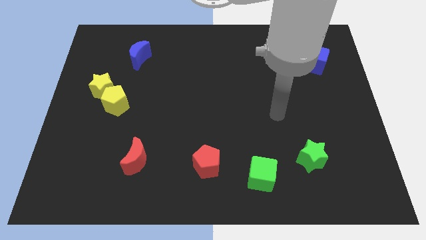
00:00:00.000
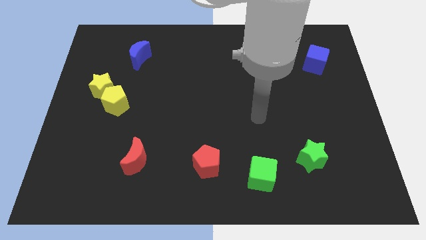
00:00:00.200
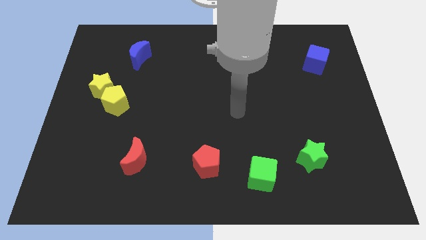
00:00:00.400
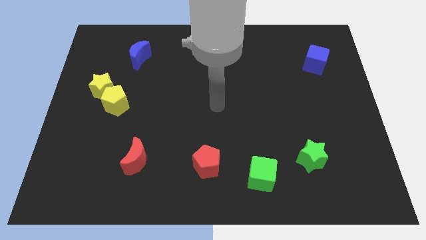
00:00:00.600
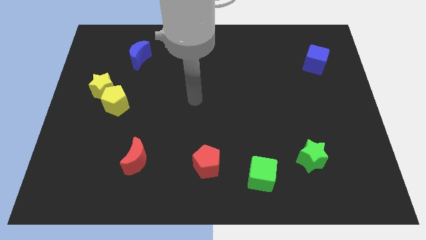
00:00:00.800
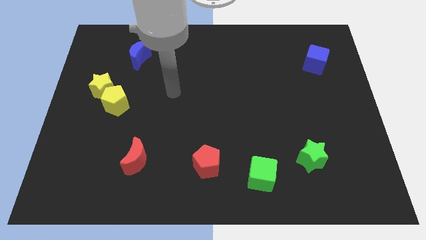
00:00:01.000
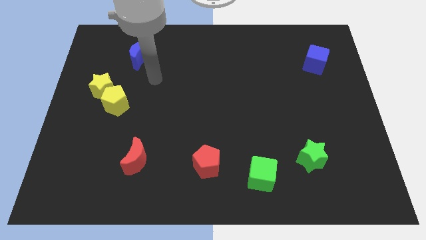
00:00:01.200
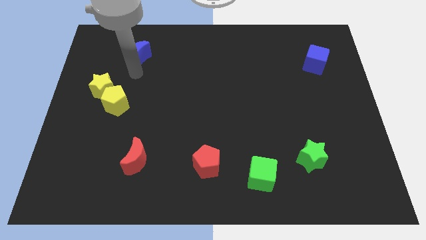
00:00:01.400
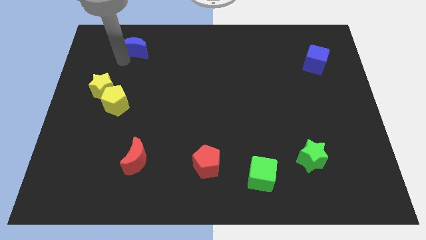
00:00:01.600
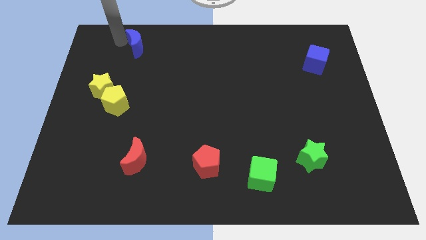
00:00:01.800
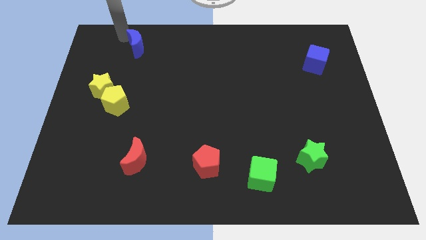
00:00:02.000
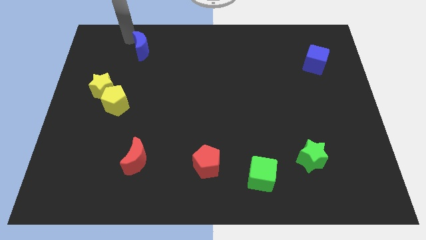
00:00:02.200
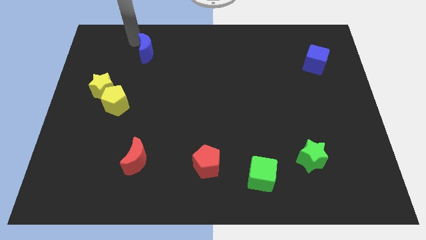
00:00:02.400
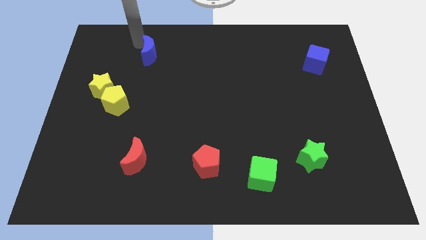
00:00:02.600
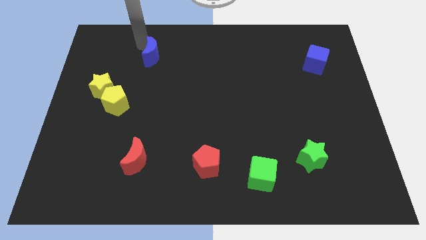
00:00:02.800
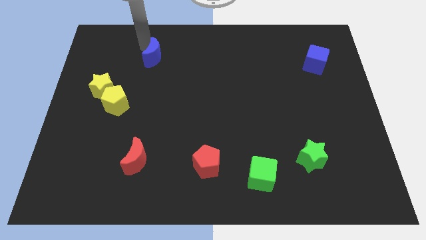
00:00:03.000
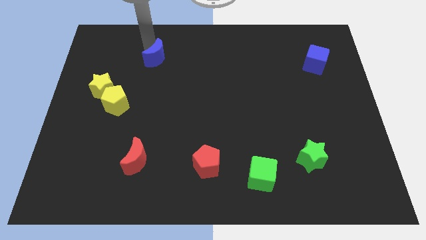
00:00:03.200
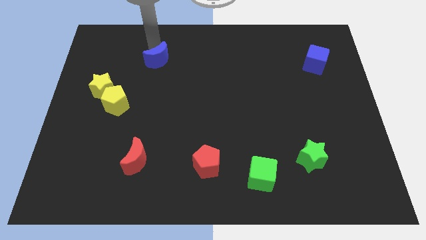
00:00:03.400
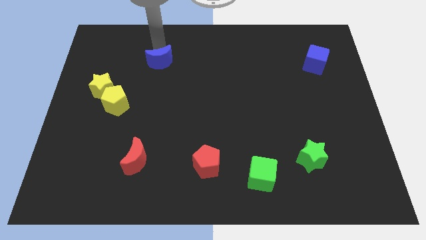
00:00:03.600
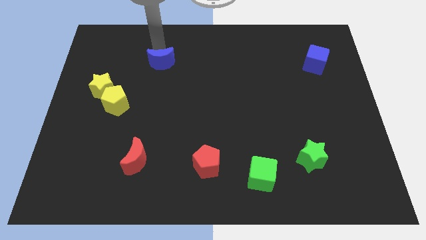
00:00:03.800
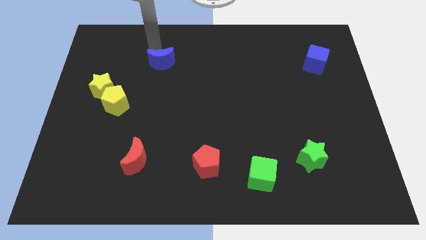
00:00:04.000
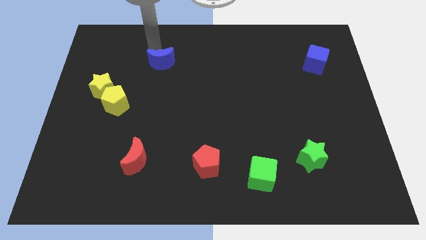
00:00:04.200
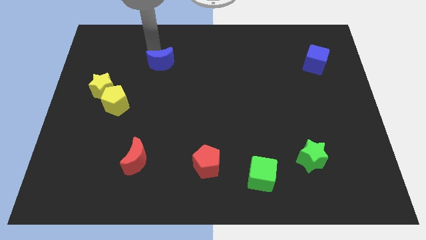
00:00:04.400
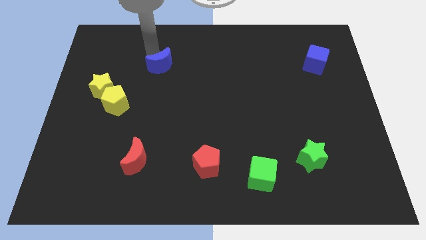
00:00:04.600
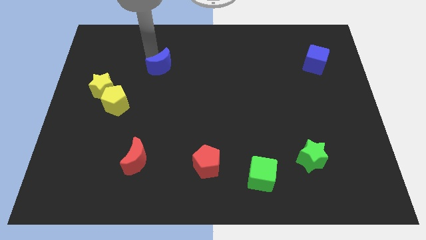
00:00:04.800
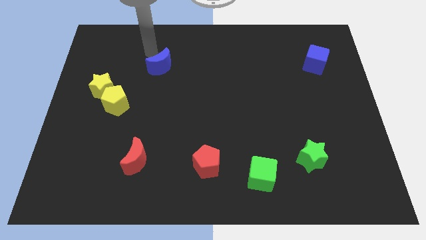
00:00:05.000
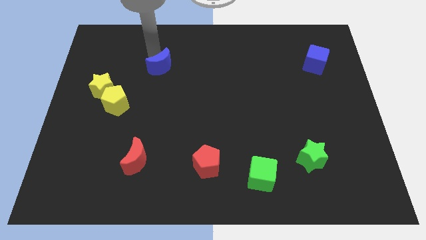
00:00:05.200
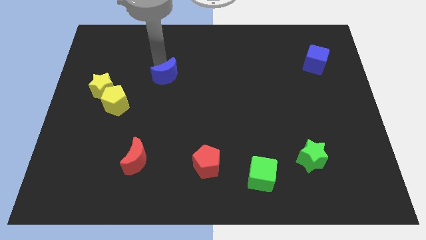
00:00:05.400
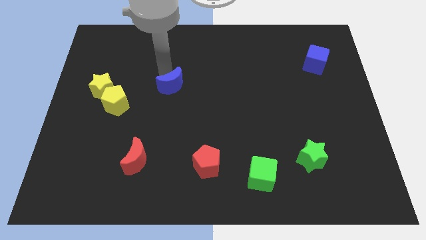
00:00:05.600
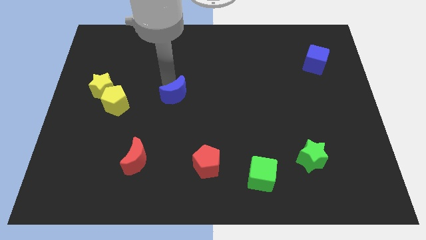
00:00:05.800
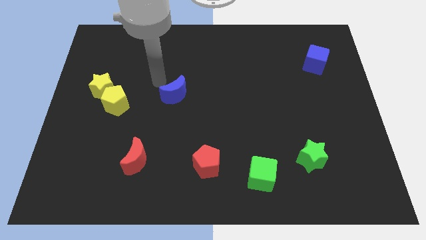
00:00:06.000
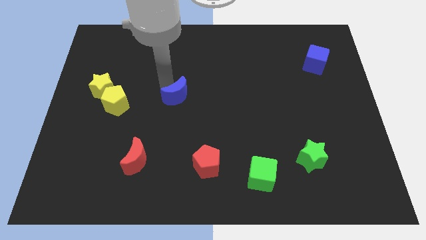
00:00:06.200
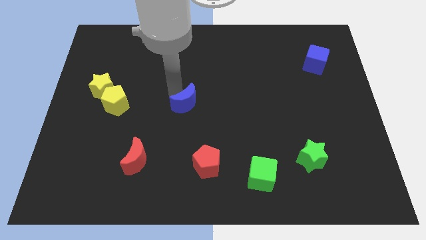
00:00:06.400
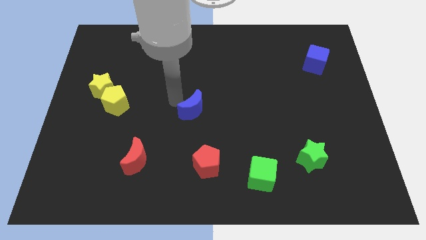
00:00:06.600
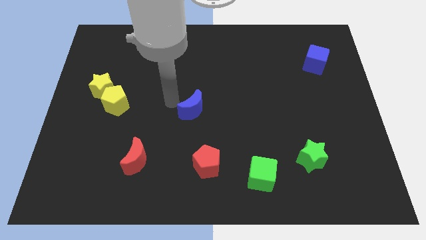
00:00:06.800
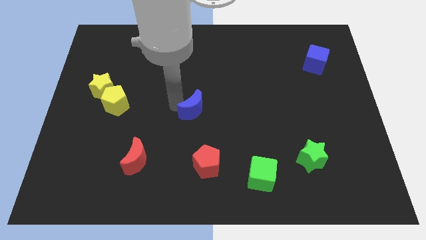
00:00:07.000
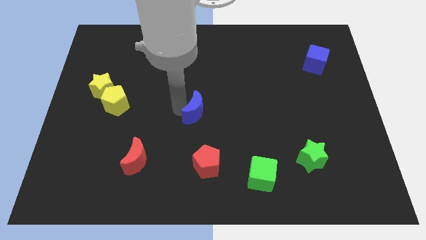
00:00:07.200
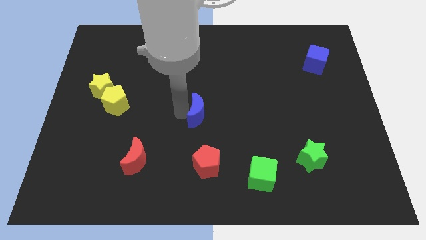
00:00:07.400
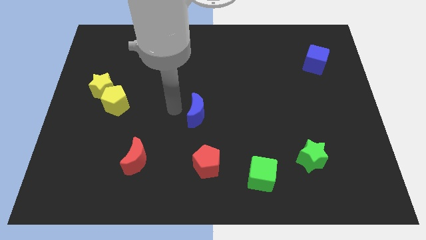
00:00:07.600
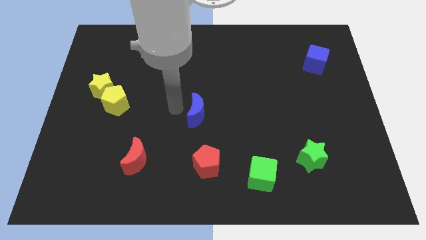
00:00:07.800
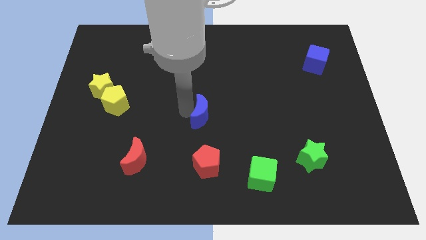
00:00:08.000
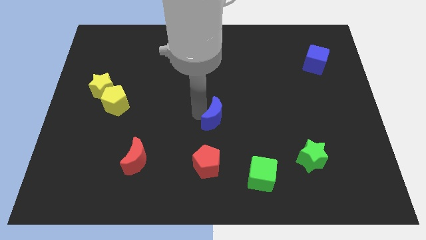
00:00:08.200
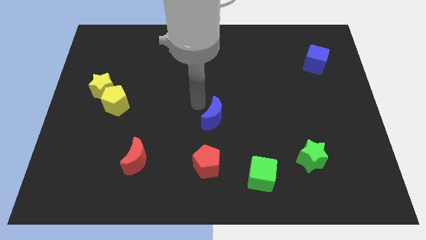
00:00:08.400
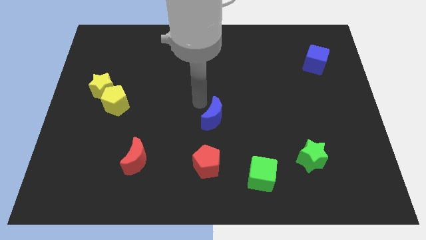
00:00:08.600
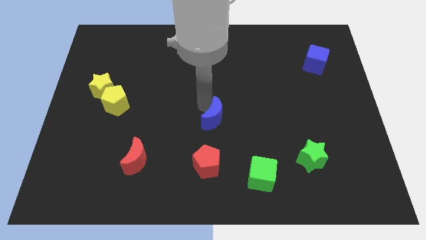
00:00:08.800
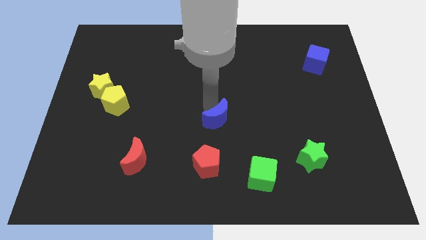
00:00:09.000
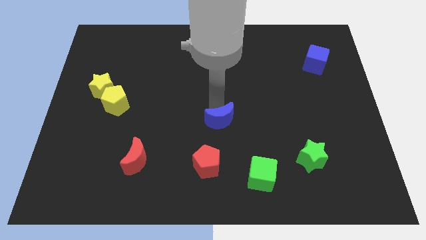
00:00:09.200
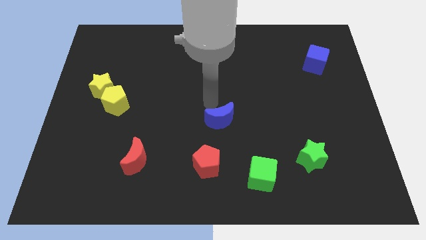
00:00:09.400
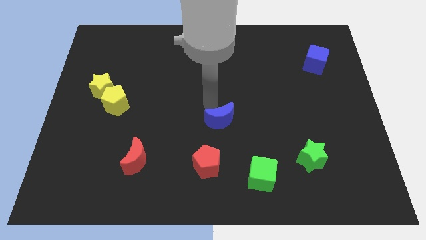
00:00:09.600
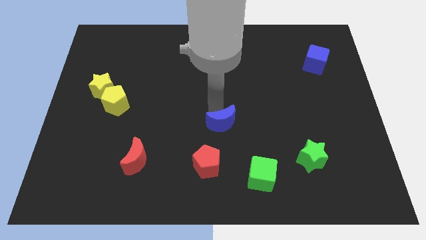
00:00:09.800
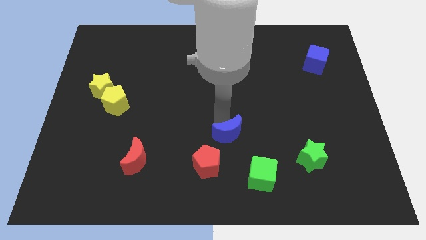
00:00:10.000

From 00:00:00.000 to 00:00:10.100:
push the blue moon diagonally up and to the left of the green cube

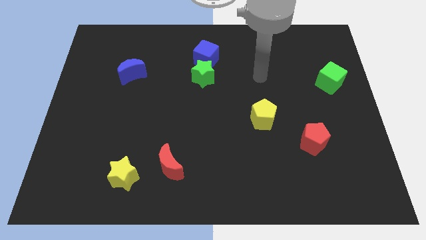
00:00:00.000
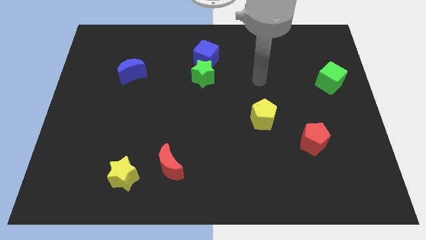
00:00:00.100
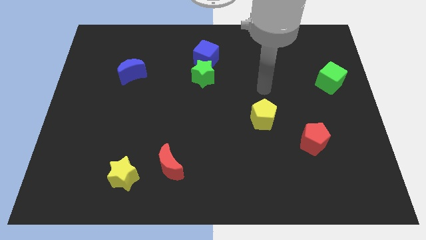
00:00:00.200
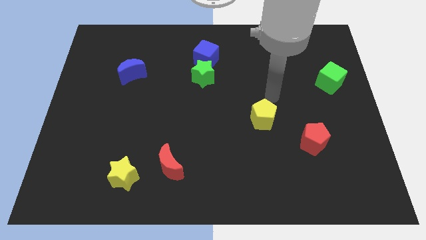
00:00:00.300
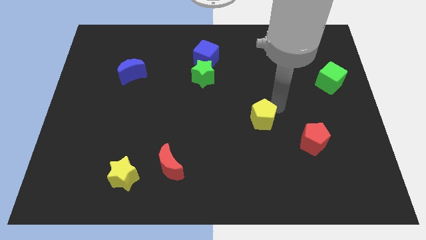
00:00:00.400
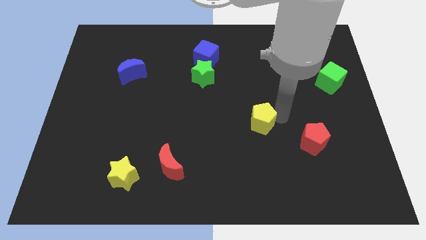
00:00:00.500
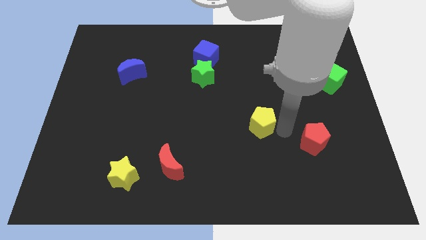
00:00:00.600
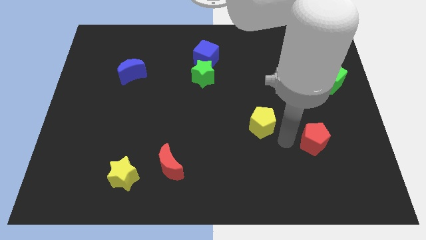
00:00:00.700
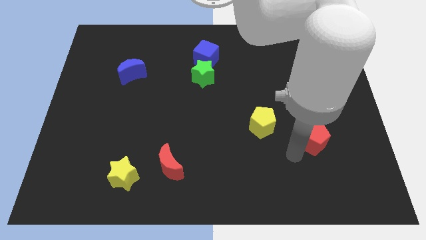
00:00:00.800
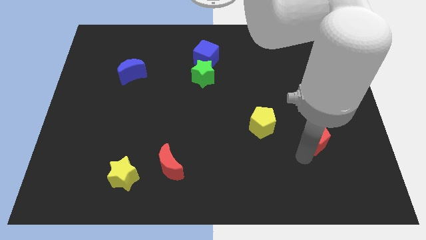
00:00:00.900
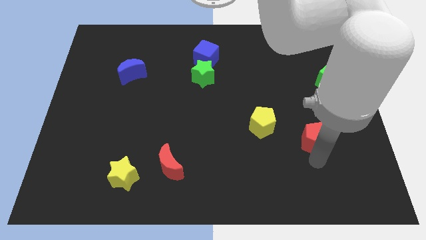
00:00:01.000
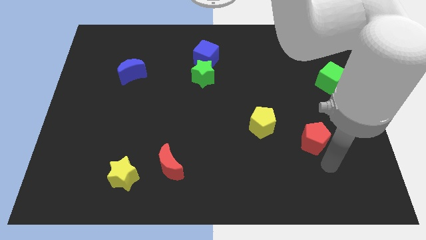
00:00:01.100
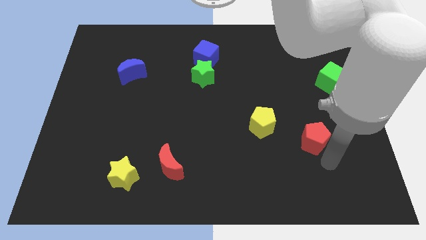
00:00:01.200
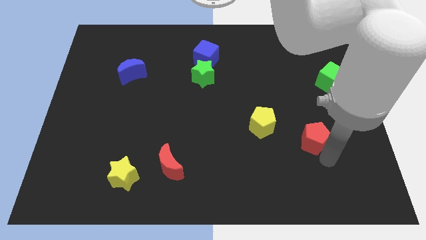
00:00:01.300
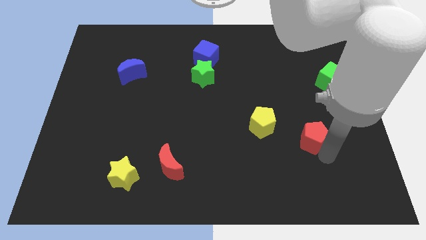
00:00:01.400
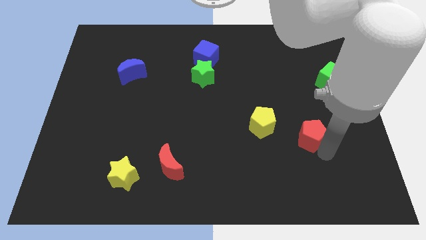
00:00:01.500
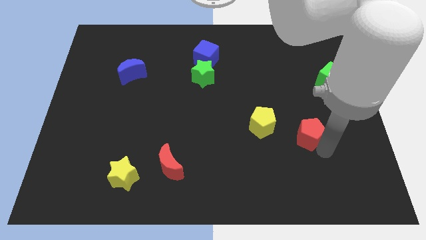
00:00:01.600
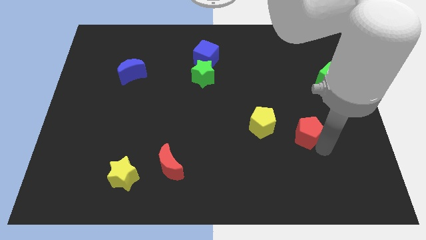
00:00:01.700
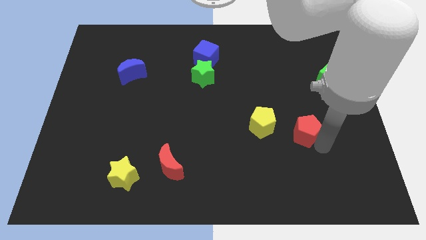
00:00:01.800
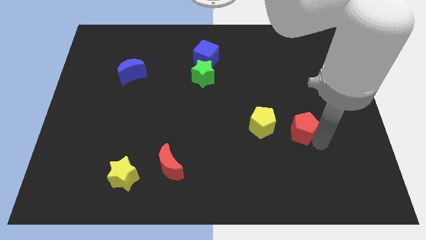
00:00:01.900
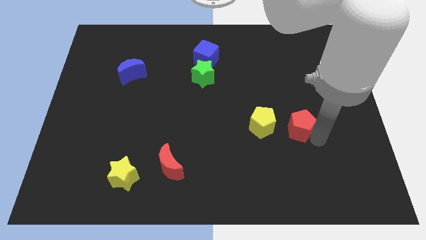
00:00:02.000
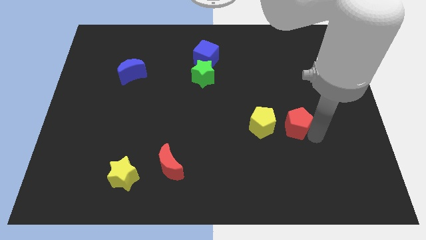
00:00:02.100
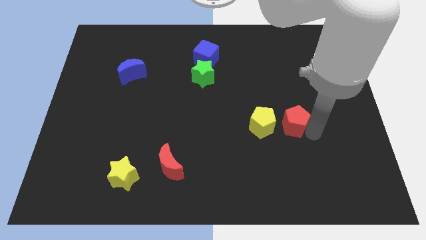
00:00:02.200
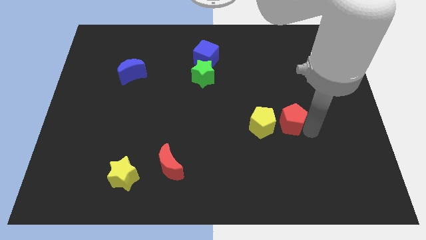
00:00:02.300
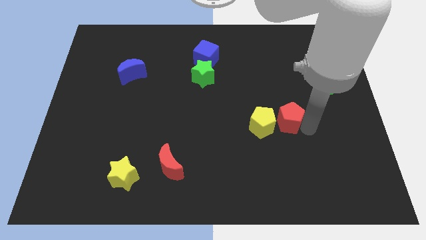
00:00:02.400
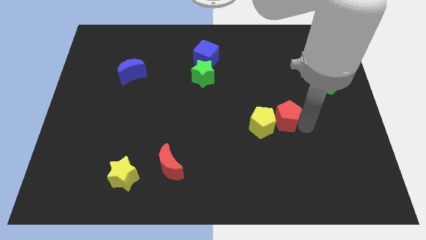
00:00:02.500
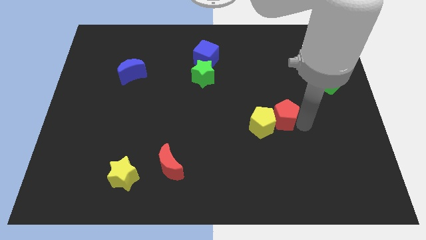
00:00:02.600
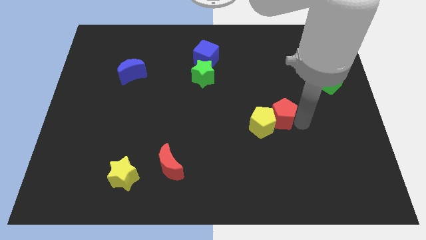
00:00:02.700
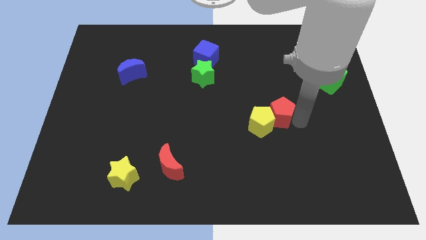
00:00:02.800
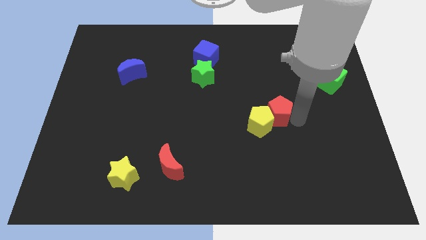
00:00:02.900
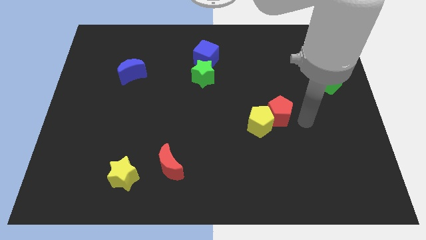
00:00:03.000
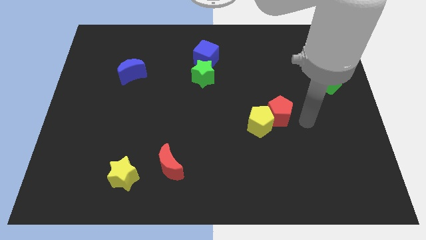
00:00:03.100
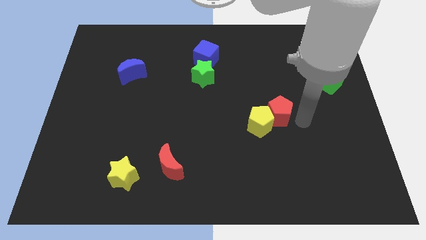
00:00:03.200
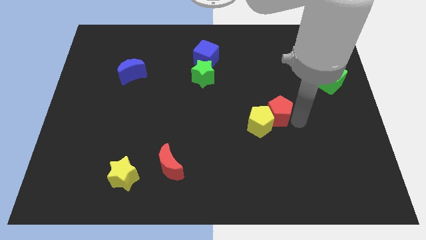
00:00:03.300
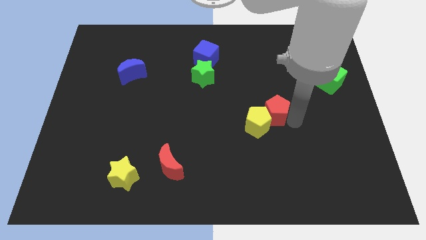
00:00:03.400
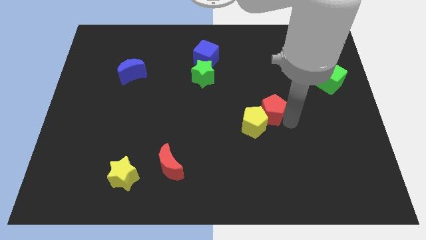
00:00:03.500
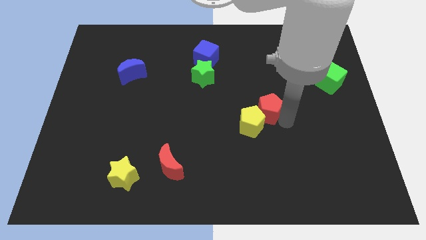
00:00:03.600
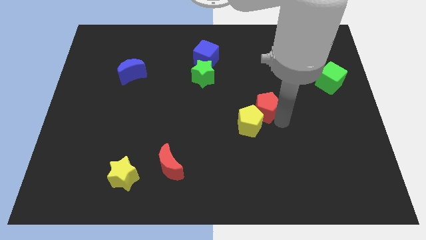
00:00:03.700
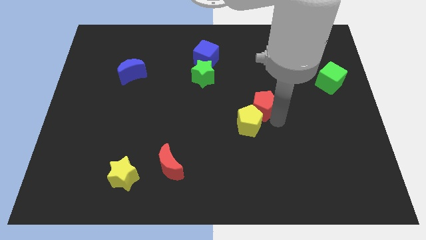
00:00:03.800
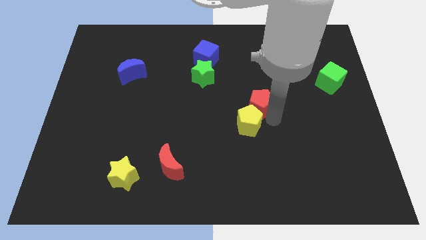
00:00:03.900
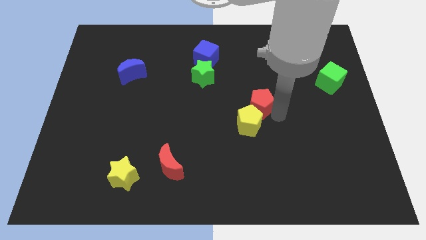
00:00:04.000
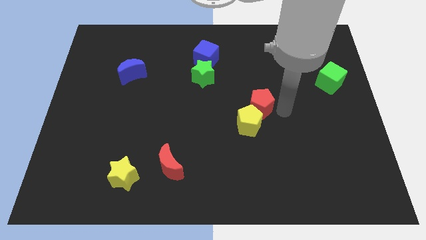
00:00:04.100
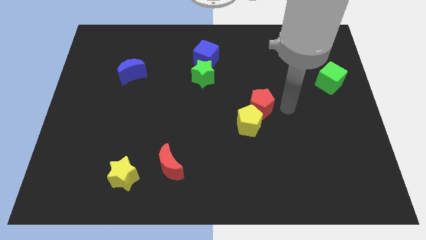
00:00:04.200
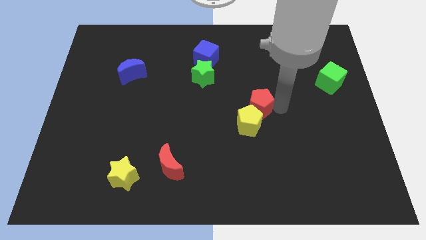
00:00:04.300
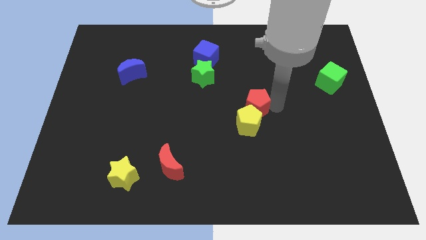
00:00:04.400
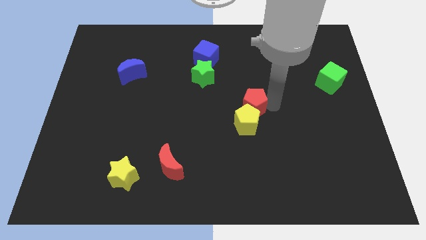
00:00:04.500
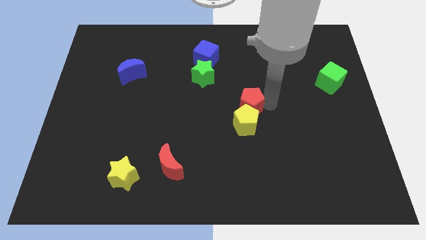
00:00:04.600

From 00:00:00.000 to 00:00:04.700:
slide the red pentagon to the top left side of the yellow pentagon
